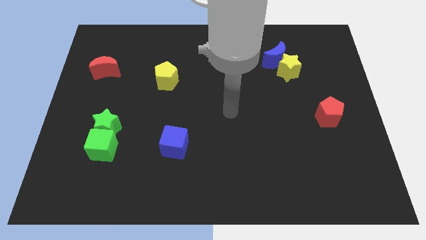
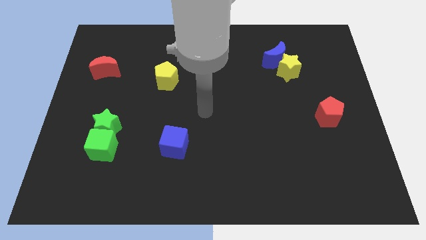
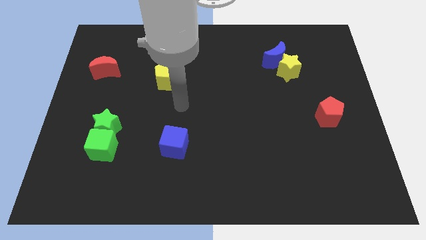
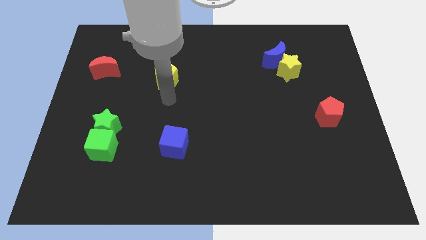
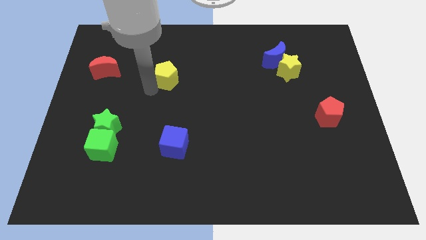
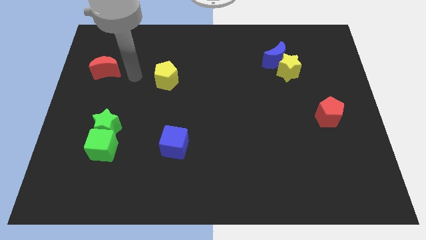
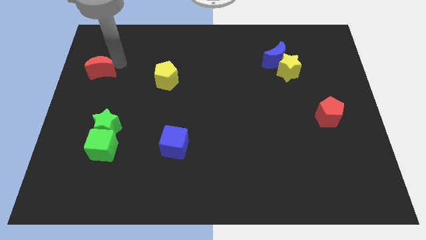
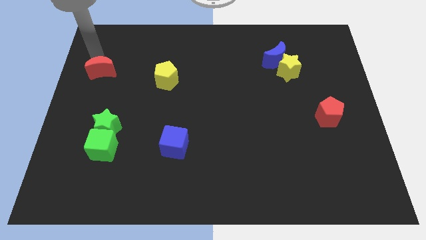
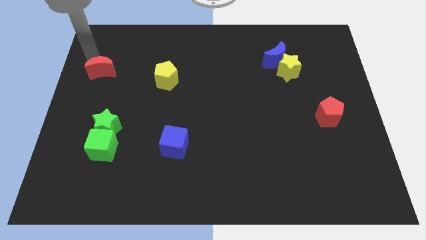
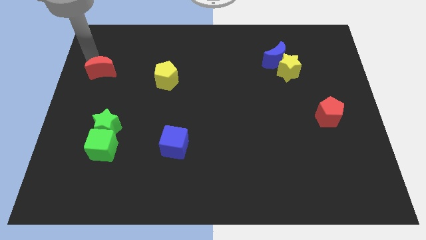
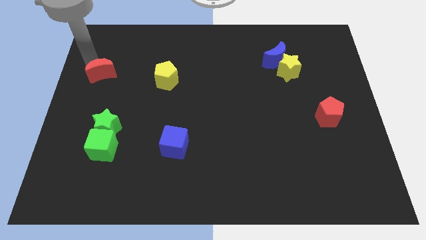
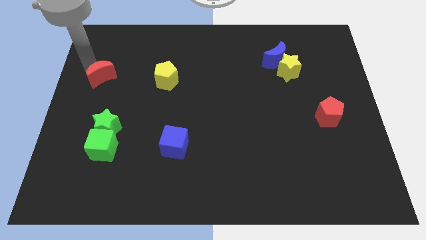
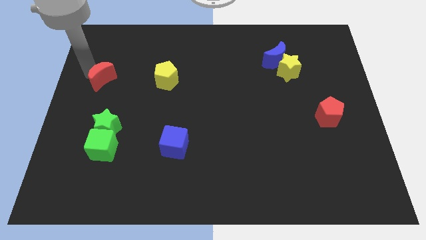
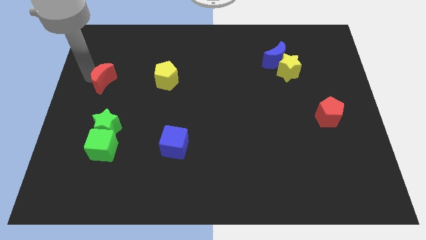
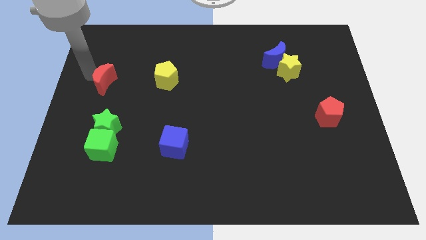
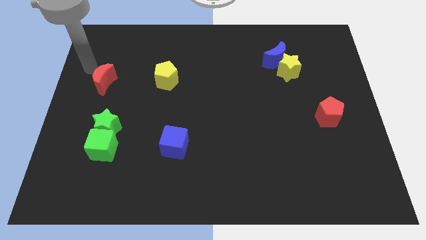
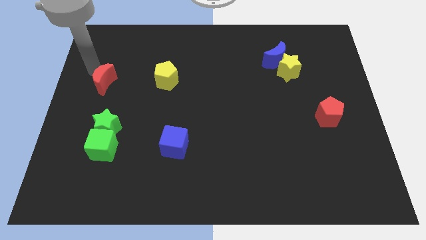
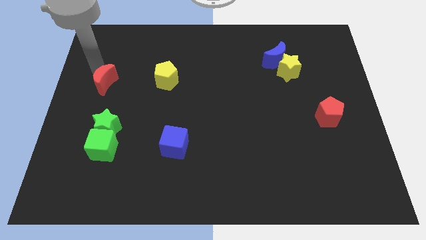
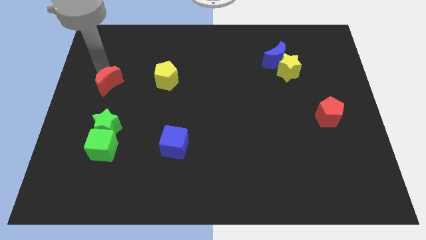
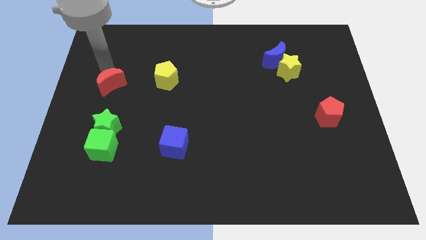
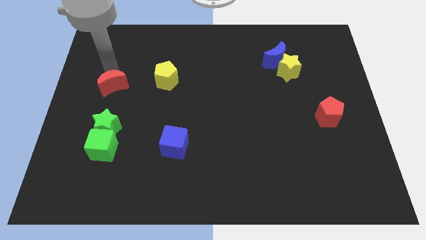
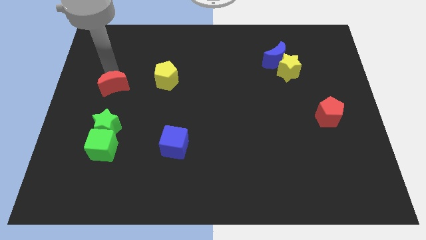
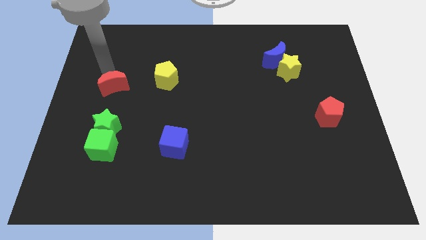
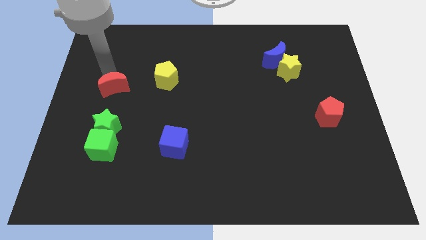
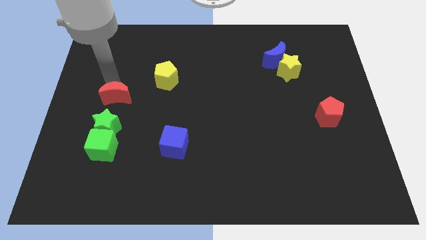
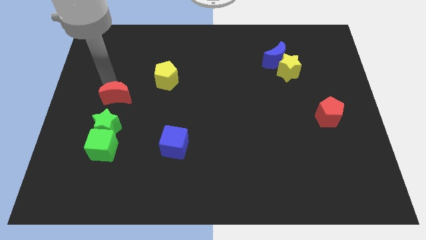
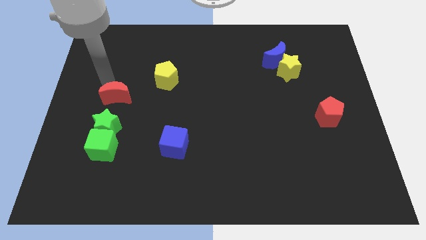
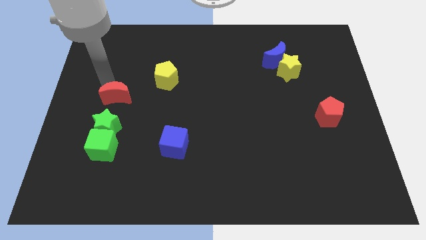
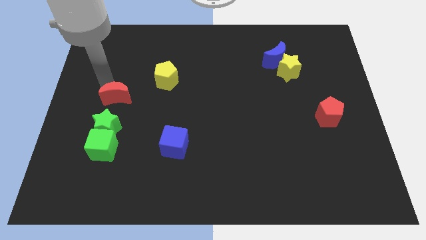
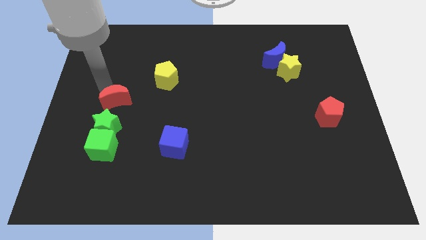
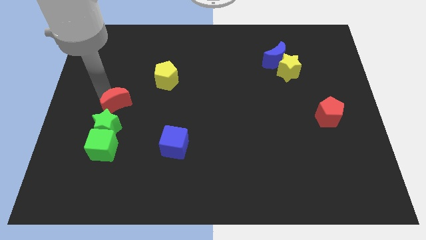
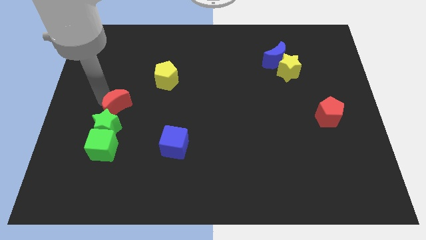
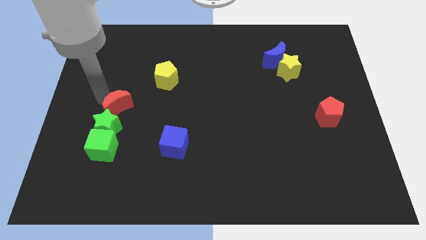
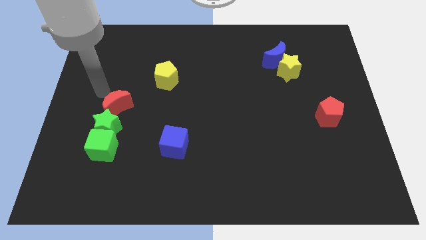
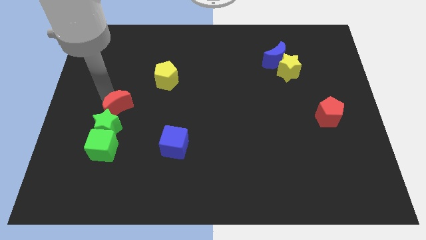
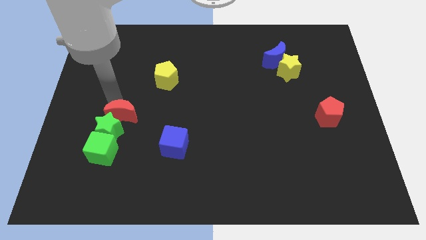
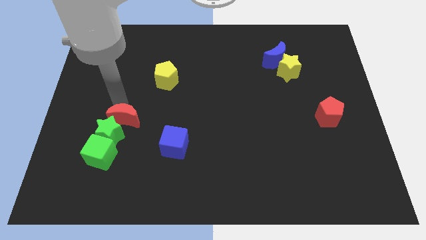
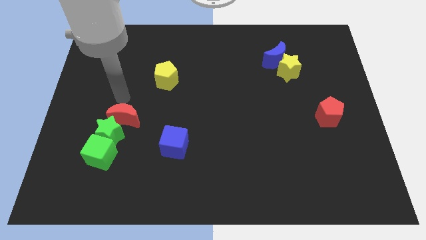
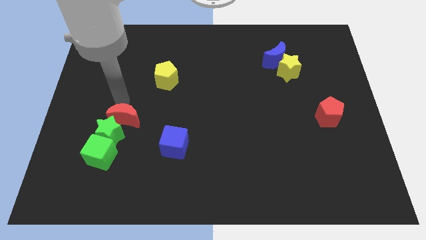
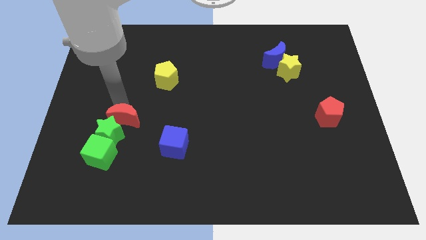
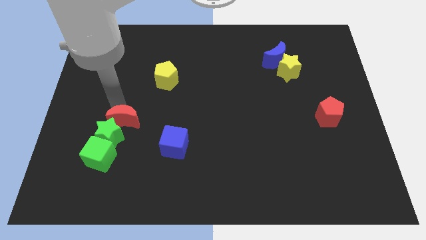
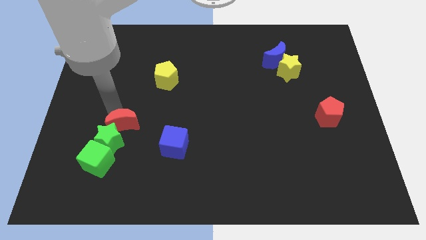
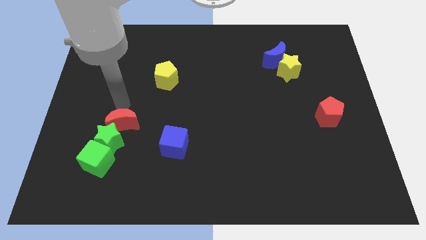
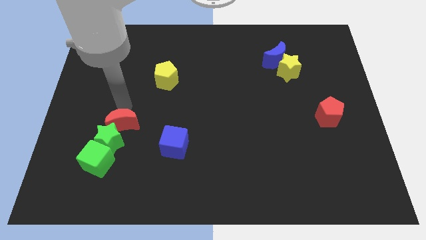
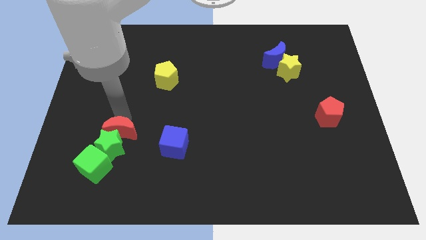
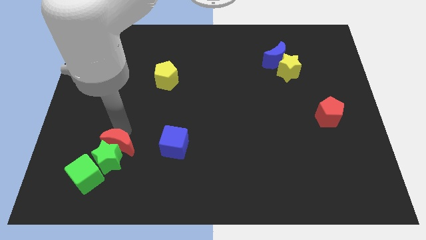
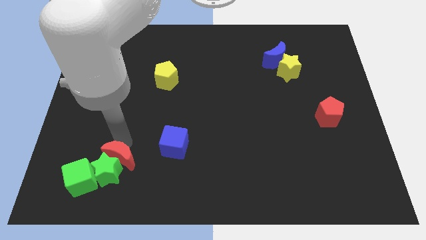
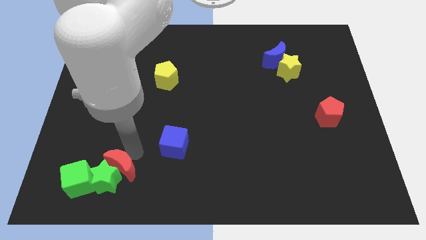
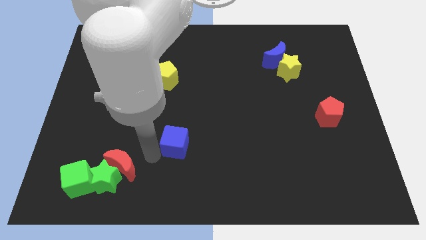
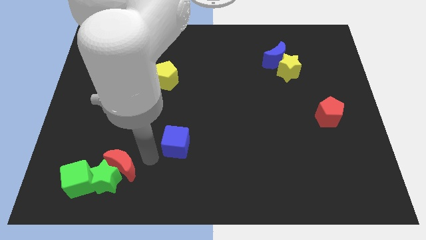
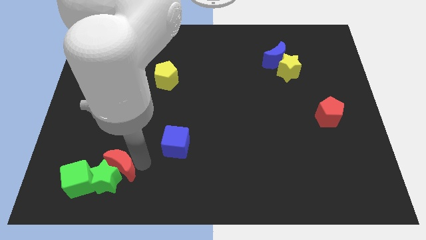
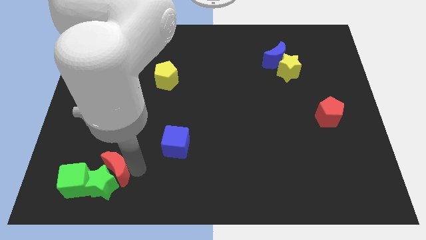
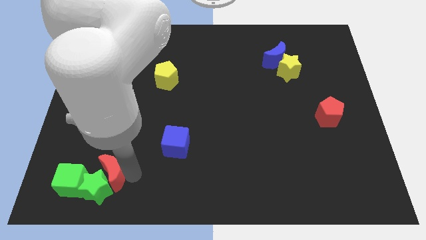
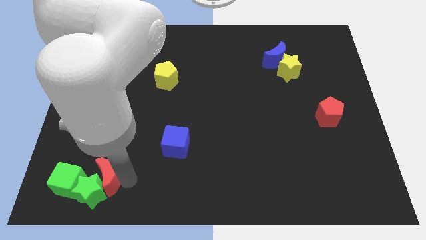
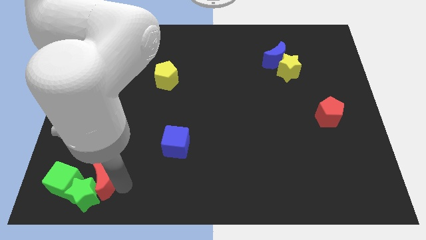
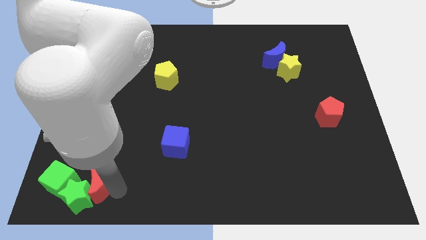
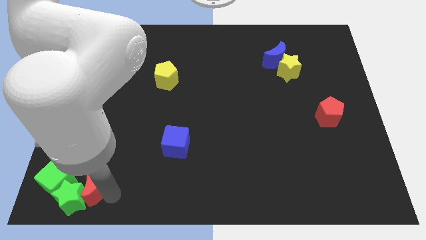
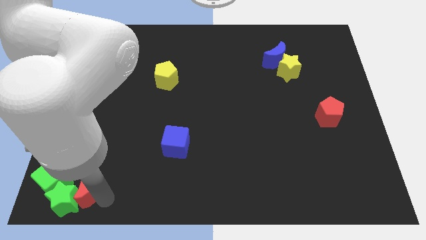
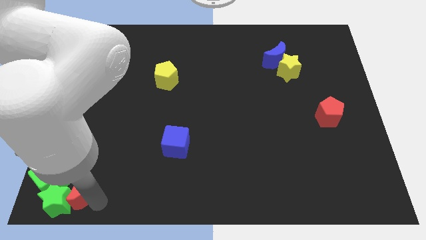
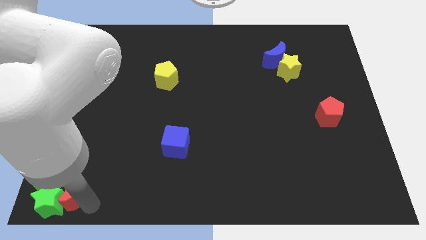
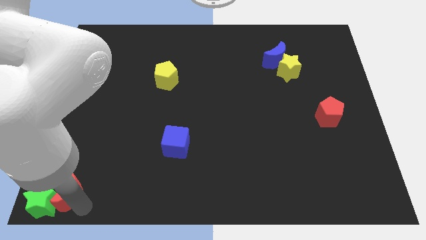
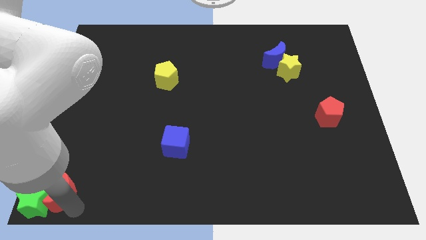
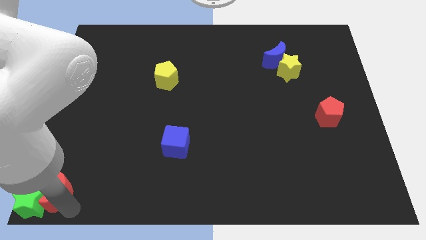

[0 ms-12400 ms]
put the red moon next to the green cube
